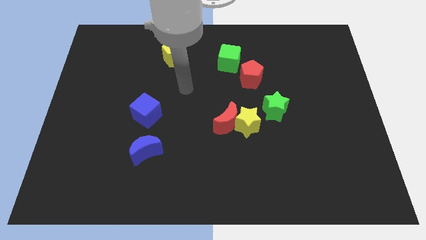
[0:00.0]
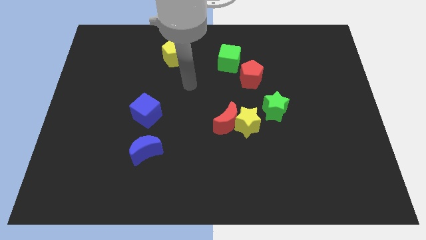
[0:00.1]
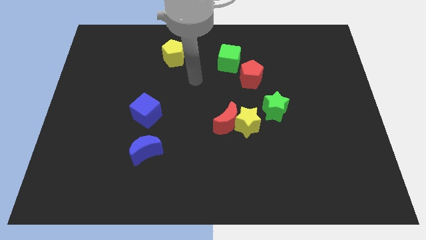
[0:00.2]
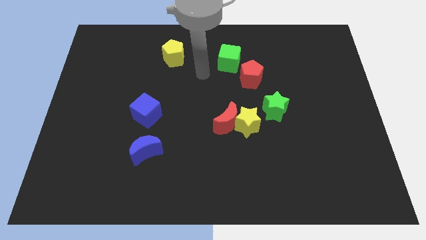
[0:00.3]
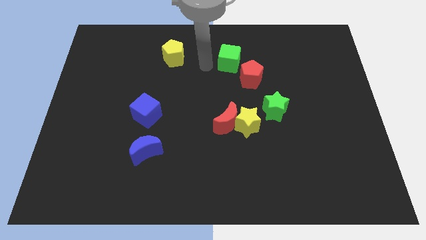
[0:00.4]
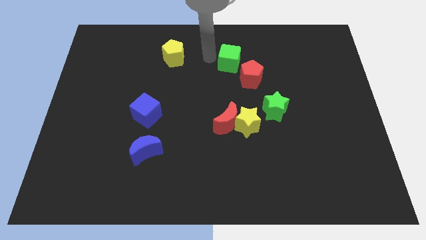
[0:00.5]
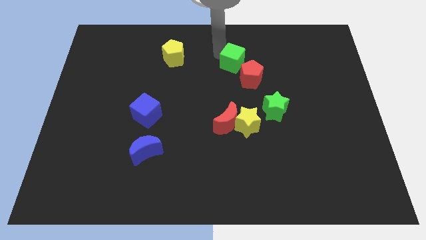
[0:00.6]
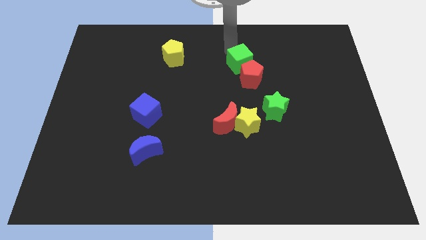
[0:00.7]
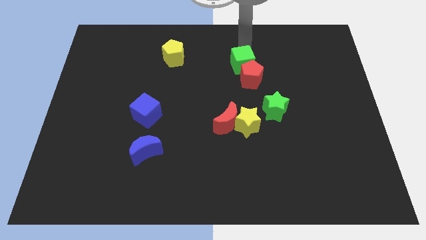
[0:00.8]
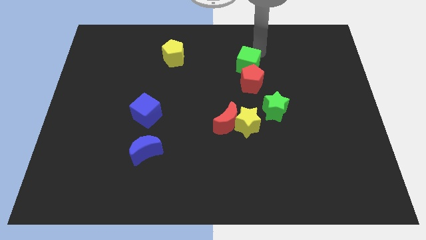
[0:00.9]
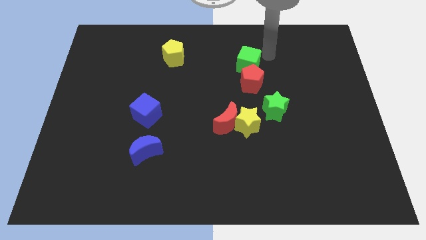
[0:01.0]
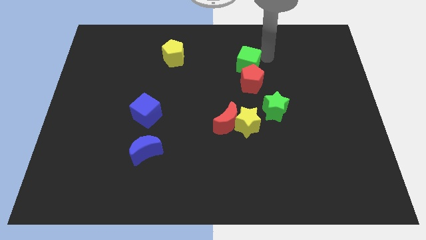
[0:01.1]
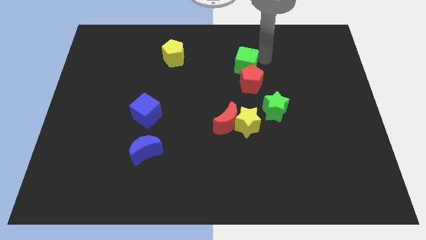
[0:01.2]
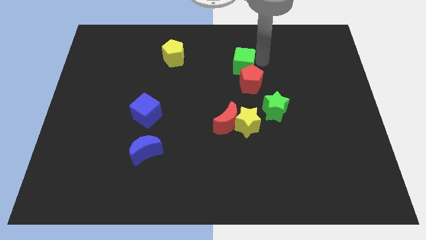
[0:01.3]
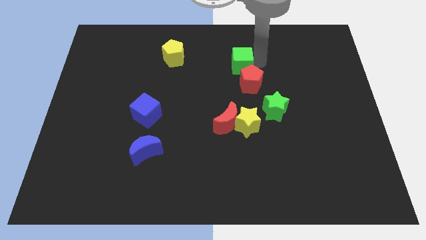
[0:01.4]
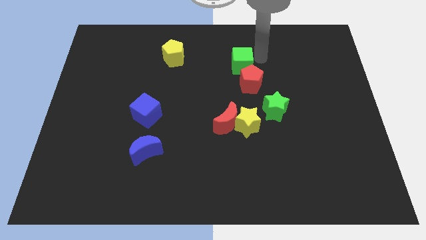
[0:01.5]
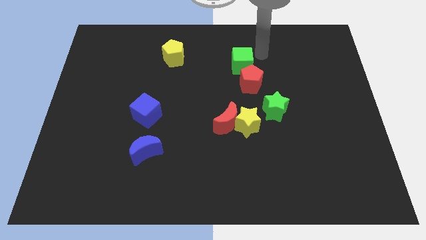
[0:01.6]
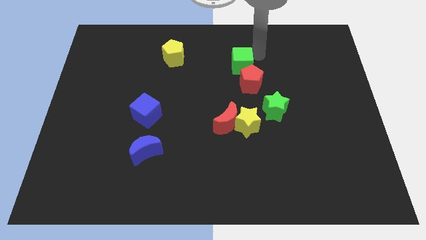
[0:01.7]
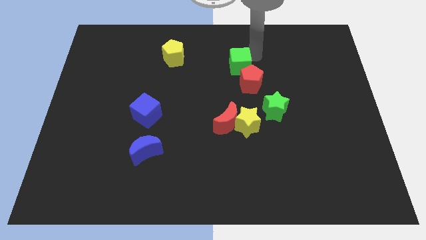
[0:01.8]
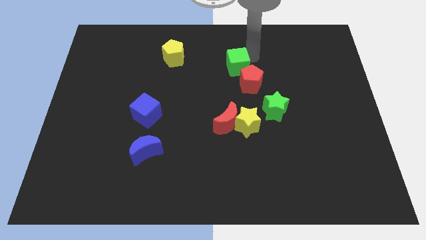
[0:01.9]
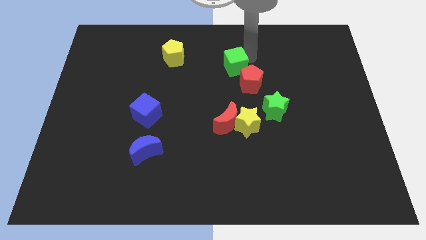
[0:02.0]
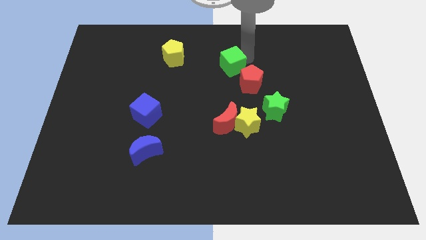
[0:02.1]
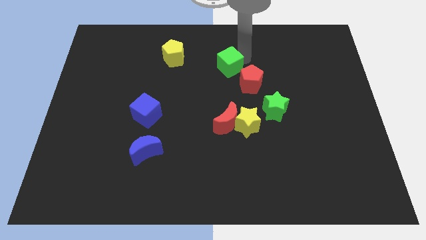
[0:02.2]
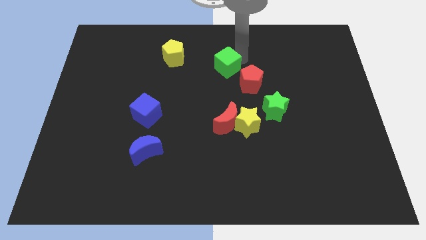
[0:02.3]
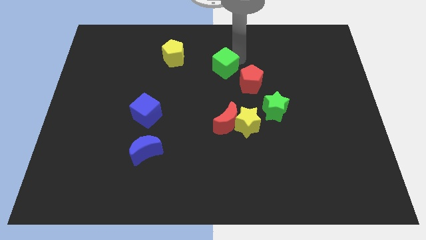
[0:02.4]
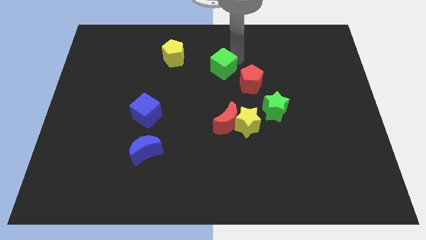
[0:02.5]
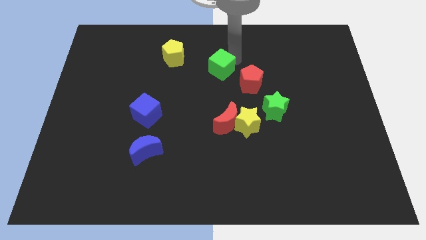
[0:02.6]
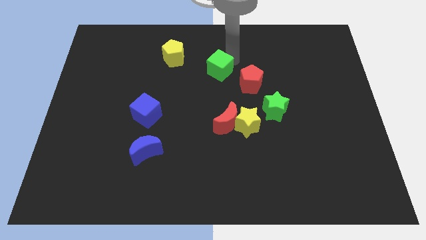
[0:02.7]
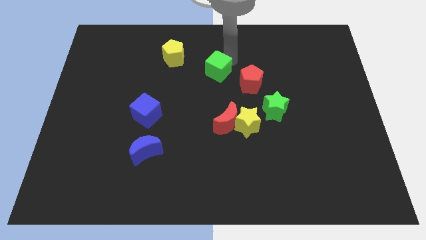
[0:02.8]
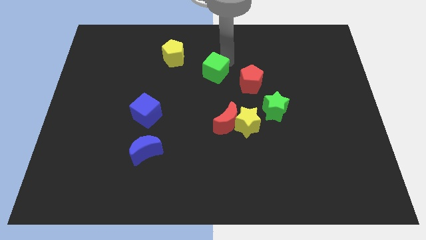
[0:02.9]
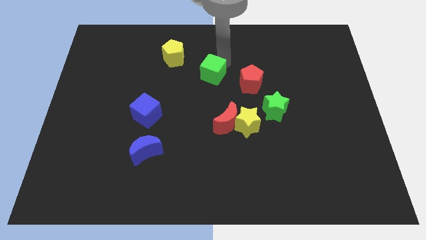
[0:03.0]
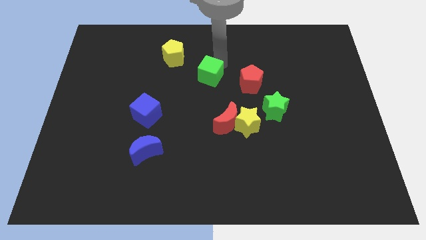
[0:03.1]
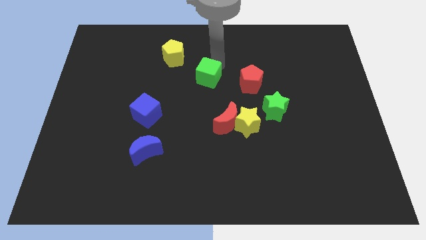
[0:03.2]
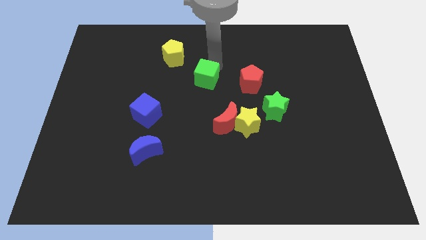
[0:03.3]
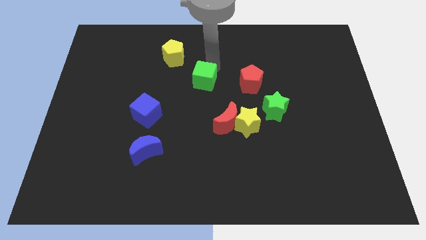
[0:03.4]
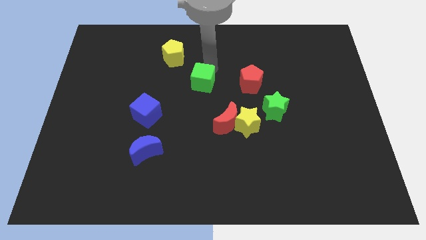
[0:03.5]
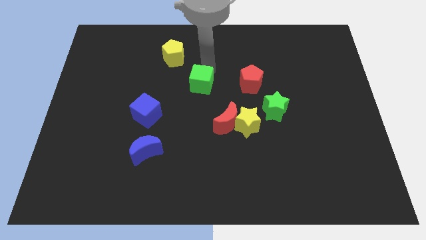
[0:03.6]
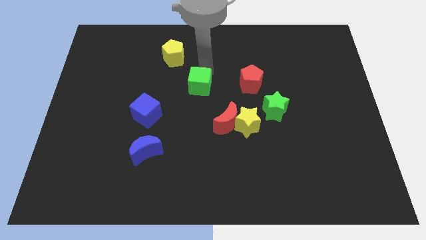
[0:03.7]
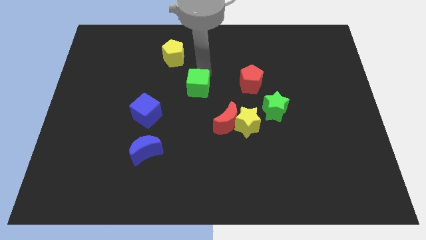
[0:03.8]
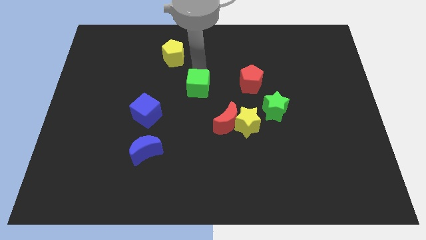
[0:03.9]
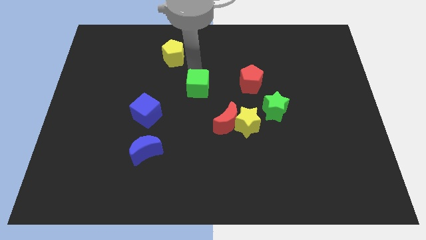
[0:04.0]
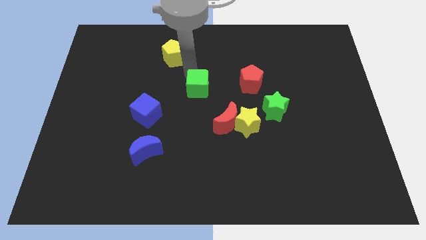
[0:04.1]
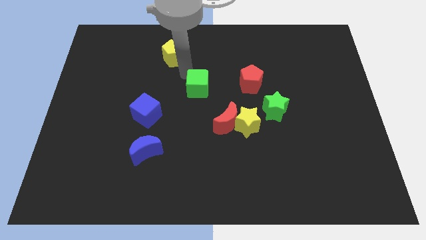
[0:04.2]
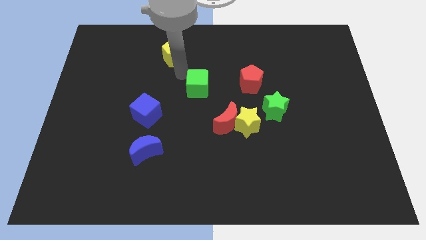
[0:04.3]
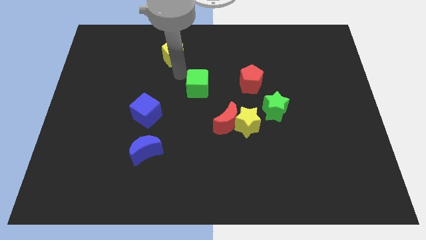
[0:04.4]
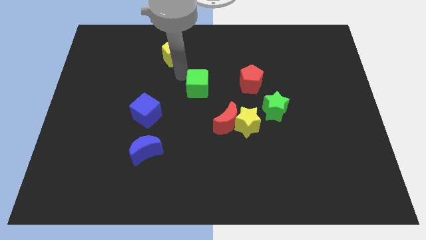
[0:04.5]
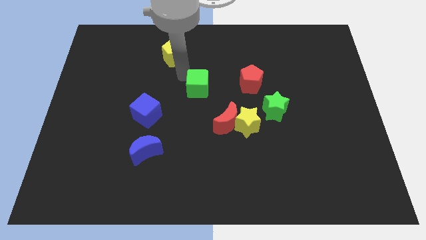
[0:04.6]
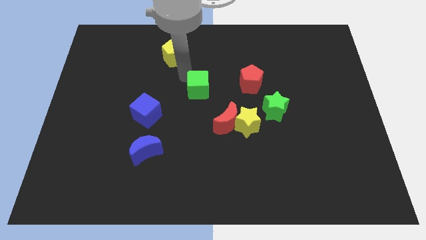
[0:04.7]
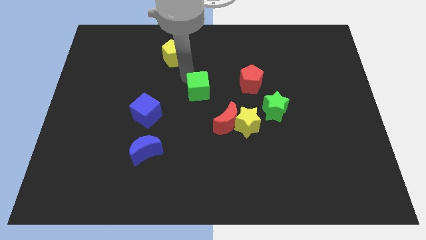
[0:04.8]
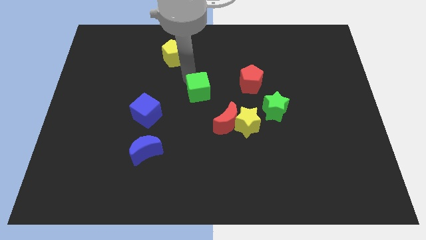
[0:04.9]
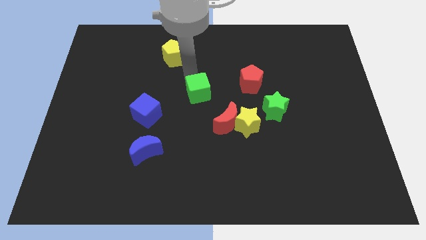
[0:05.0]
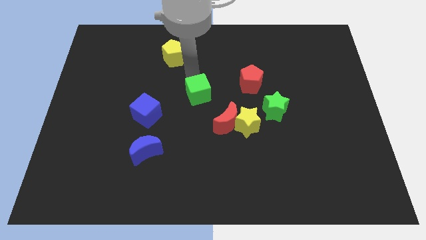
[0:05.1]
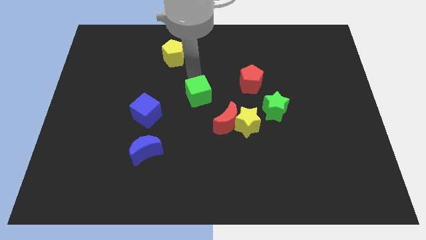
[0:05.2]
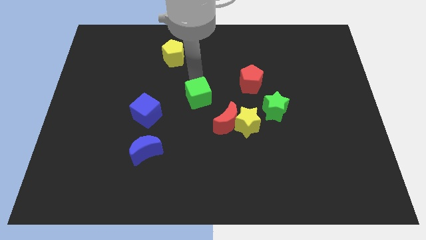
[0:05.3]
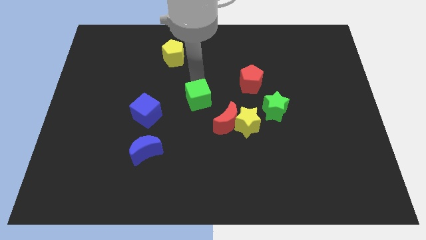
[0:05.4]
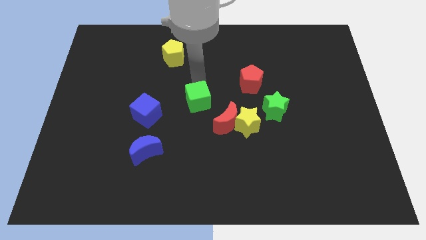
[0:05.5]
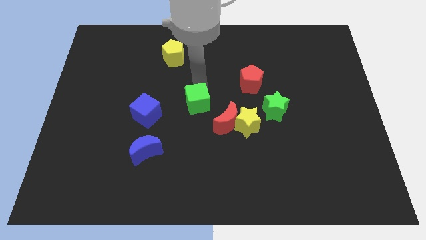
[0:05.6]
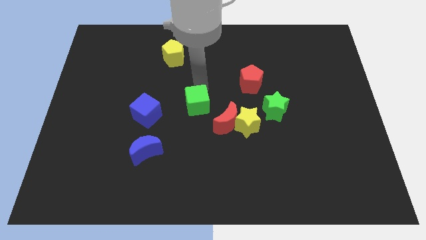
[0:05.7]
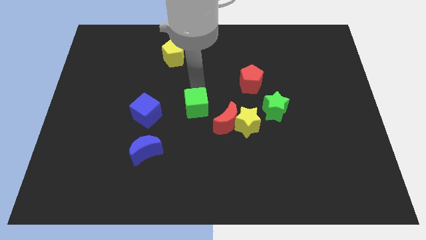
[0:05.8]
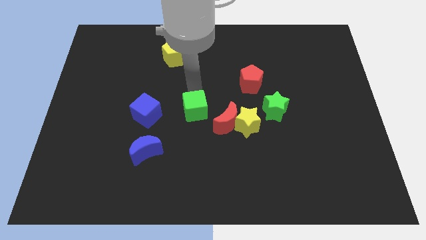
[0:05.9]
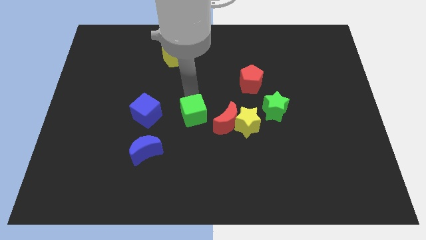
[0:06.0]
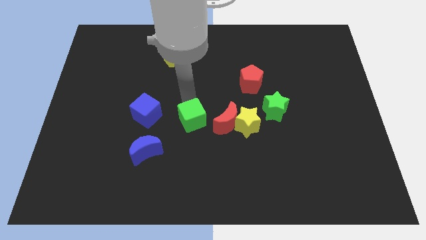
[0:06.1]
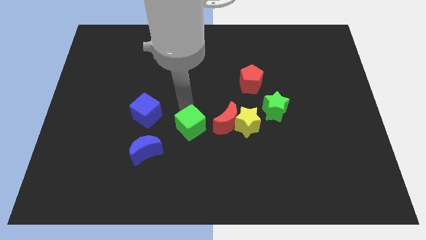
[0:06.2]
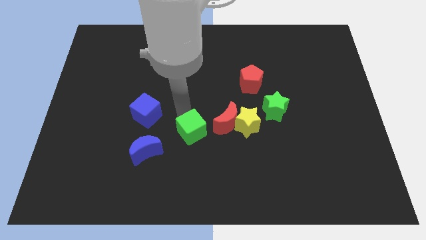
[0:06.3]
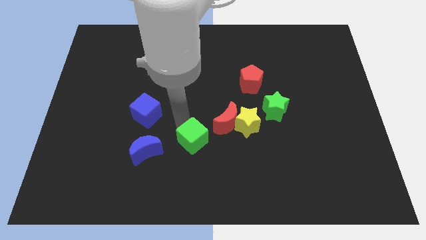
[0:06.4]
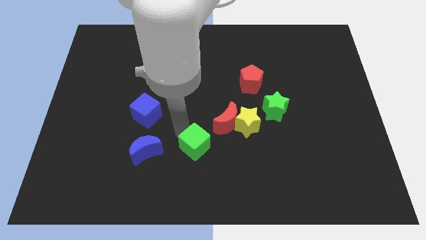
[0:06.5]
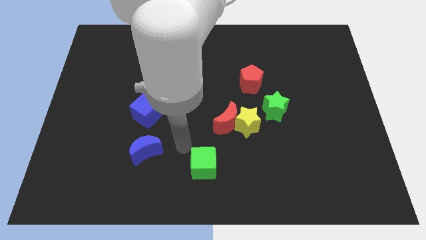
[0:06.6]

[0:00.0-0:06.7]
move the green cube to the bottom side
